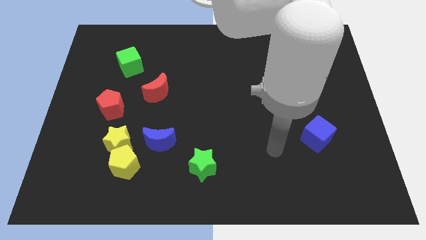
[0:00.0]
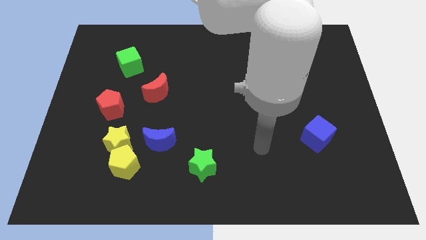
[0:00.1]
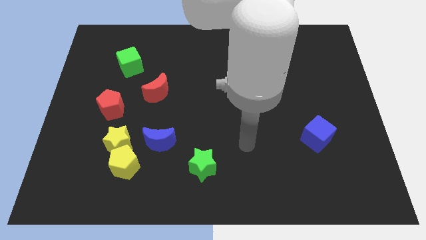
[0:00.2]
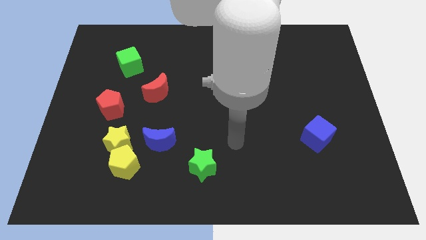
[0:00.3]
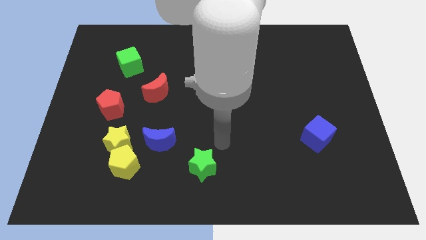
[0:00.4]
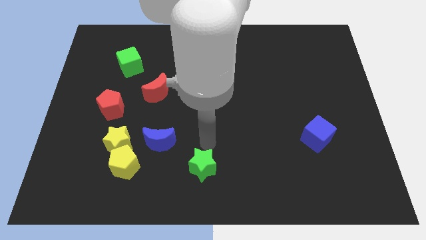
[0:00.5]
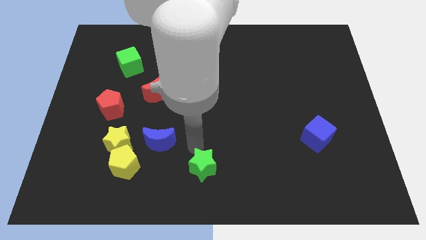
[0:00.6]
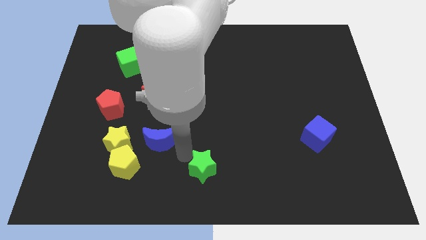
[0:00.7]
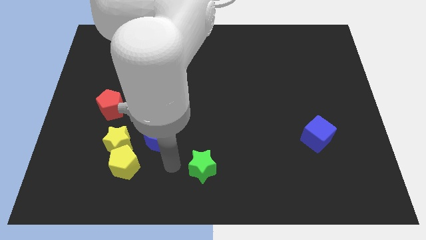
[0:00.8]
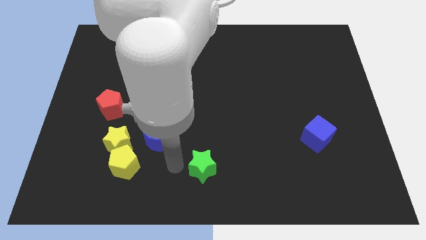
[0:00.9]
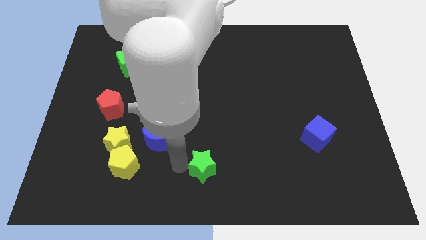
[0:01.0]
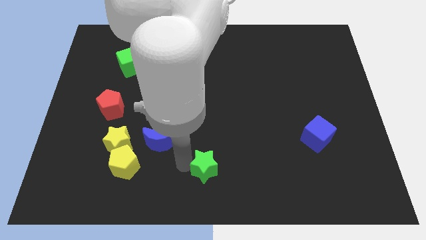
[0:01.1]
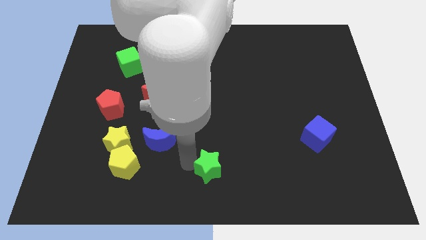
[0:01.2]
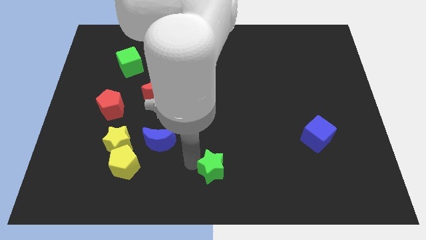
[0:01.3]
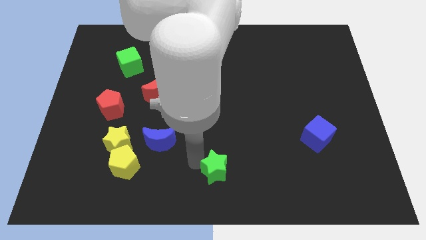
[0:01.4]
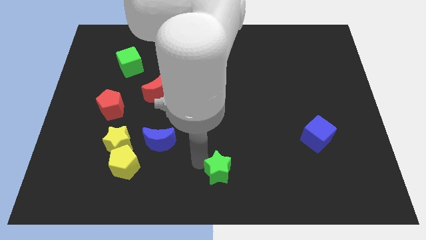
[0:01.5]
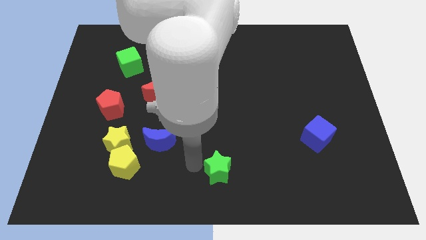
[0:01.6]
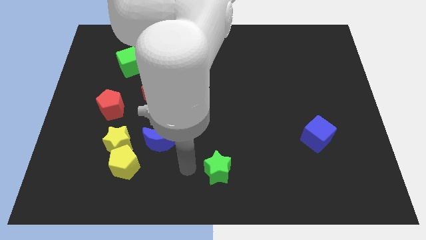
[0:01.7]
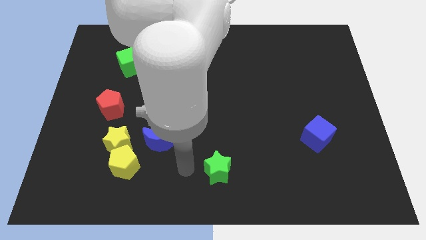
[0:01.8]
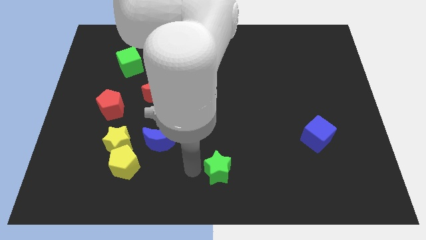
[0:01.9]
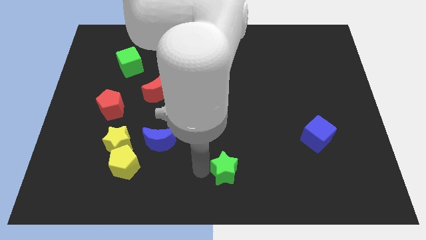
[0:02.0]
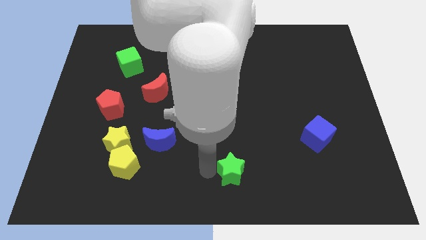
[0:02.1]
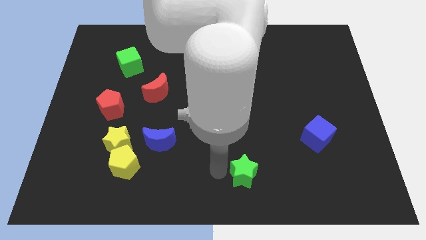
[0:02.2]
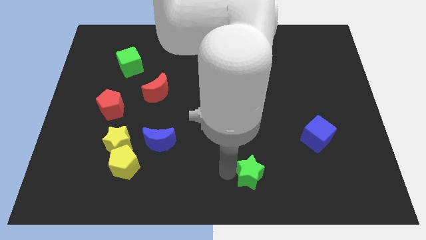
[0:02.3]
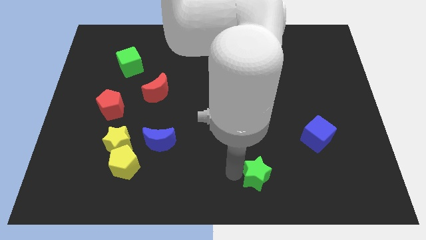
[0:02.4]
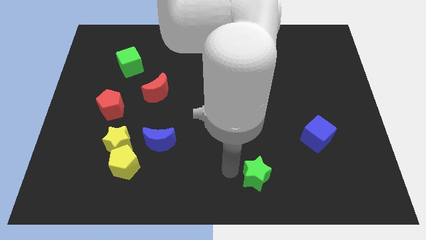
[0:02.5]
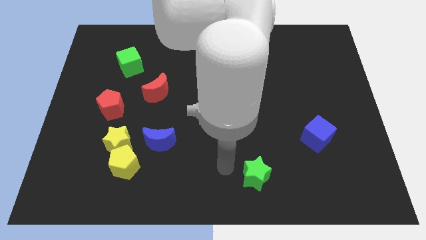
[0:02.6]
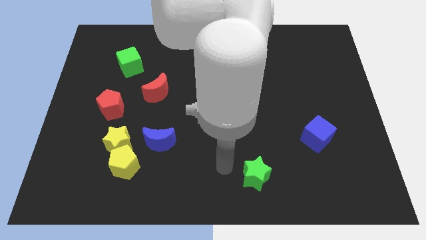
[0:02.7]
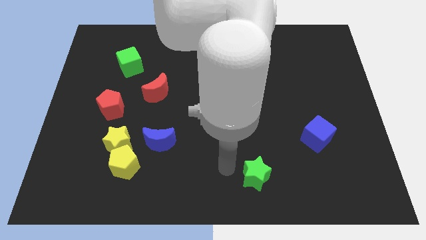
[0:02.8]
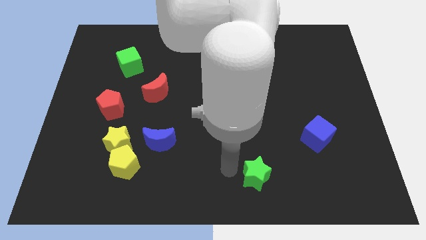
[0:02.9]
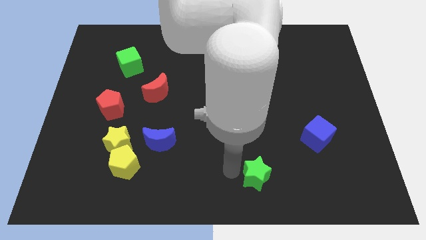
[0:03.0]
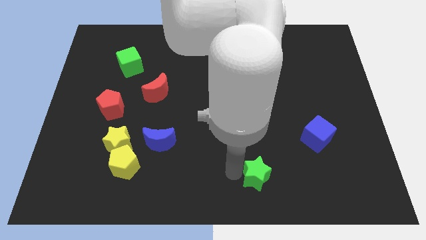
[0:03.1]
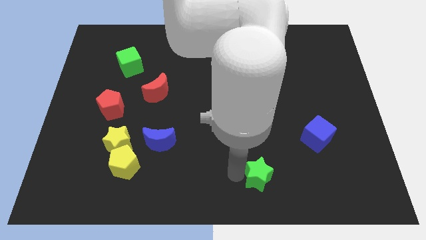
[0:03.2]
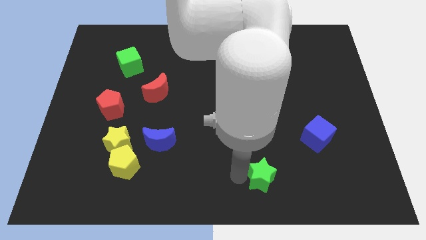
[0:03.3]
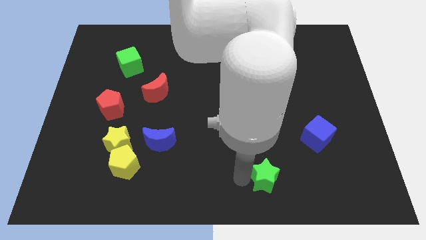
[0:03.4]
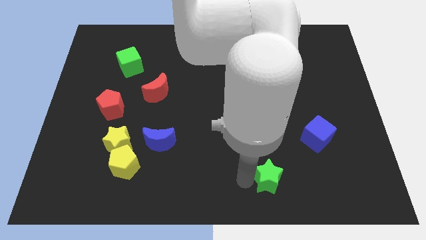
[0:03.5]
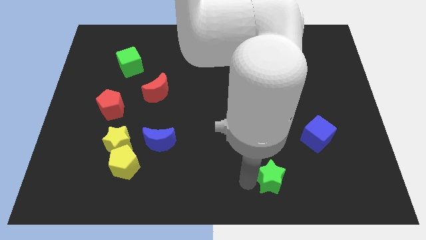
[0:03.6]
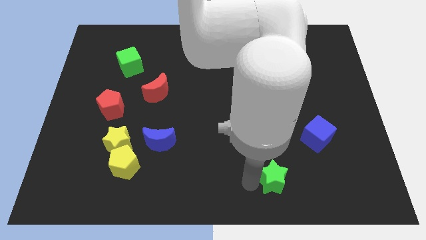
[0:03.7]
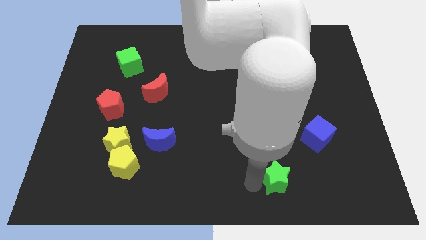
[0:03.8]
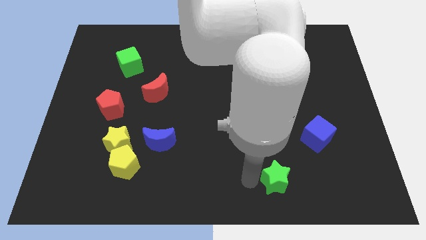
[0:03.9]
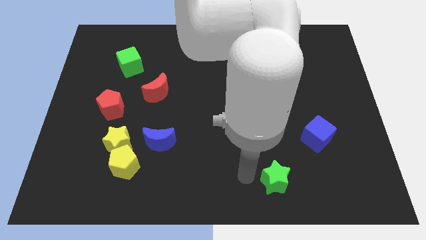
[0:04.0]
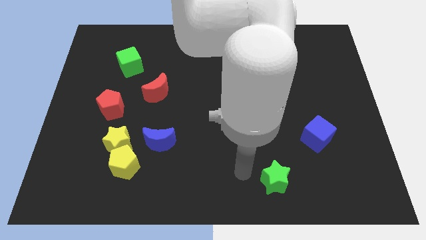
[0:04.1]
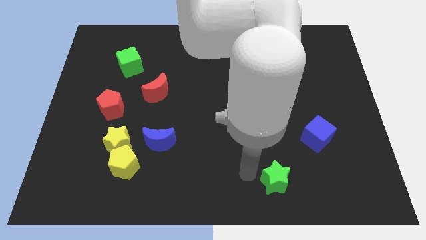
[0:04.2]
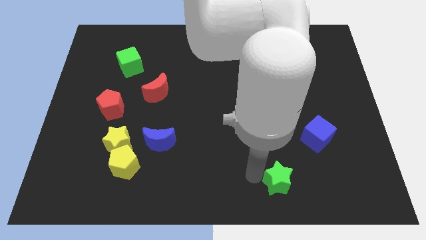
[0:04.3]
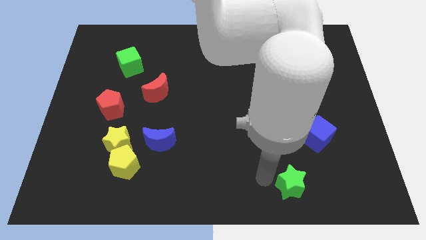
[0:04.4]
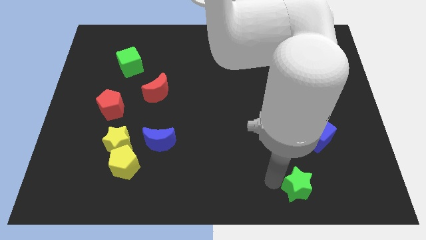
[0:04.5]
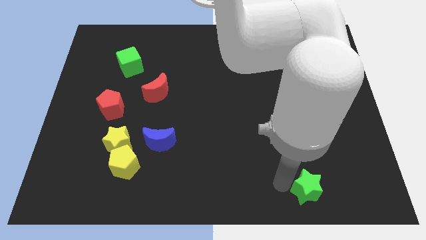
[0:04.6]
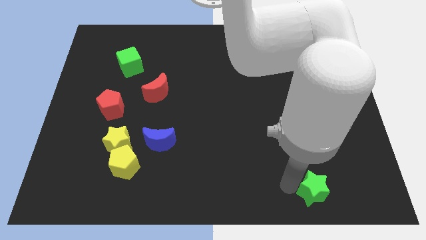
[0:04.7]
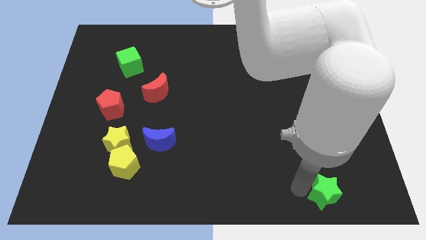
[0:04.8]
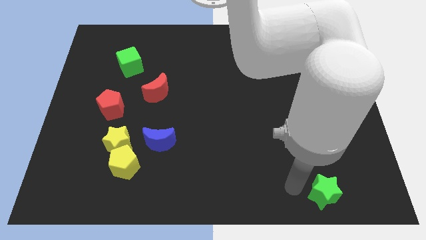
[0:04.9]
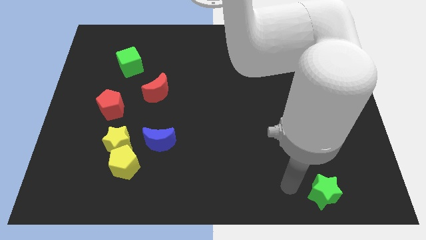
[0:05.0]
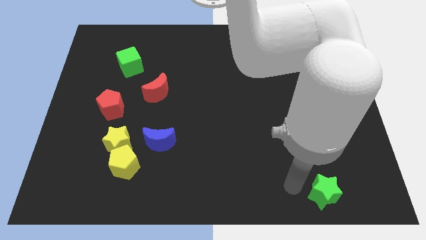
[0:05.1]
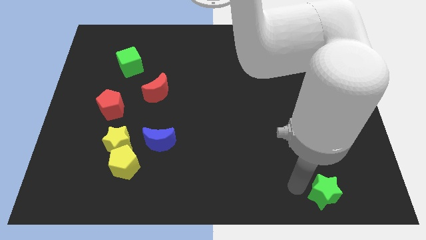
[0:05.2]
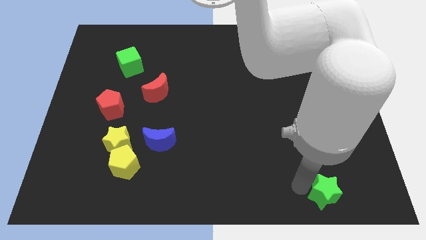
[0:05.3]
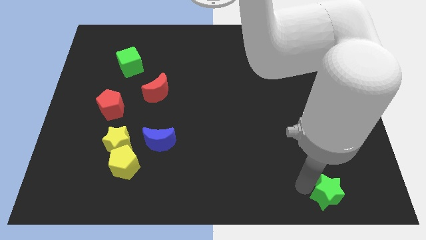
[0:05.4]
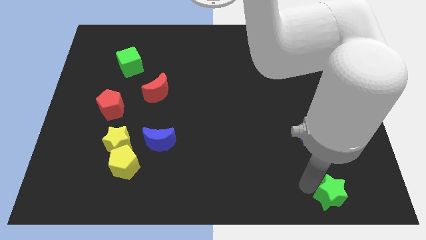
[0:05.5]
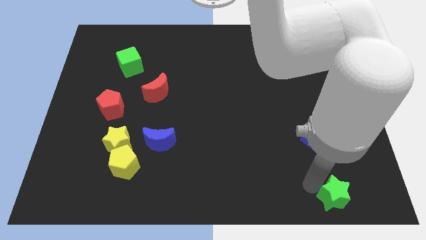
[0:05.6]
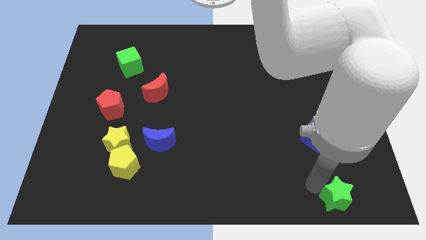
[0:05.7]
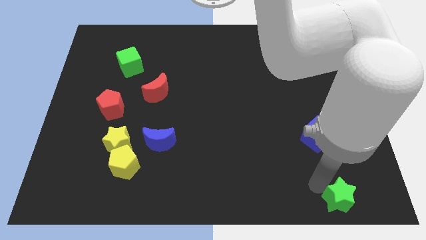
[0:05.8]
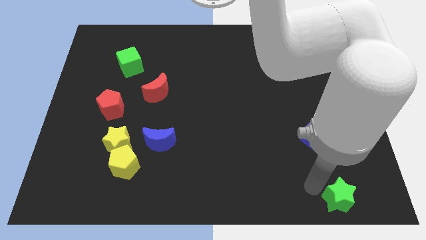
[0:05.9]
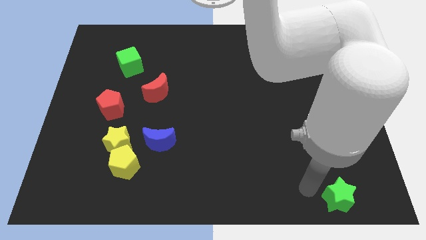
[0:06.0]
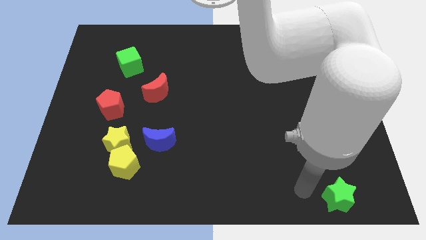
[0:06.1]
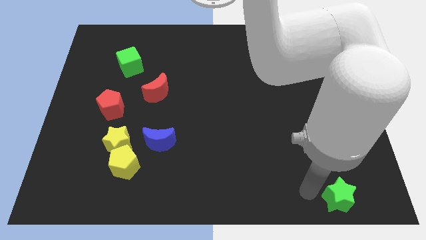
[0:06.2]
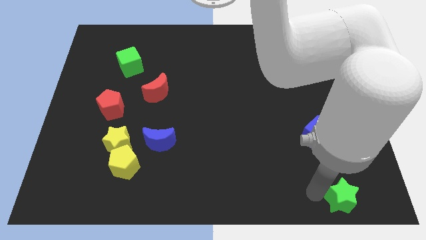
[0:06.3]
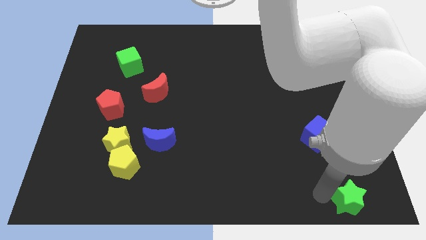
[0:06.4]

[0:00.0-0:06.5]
put the green star to the bottom right of the board

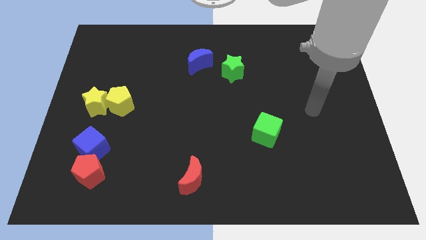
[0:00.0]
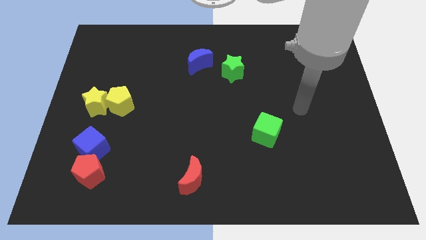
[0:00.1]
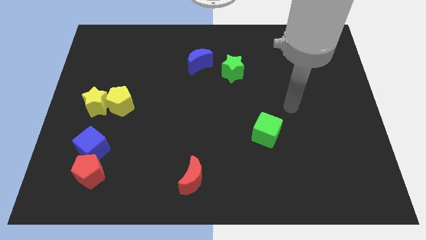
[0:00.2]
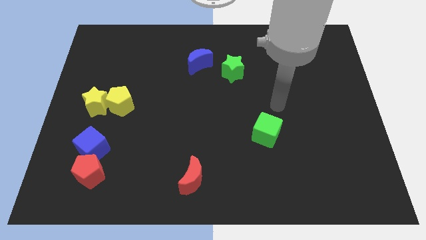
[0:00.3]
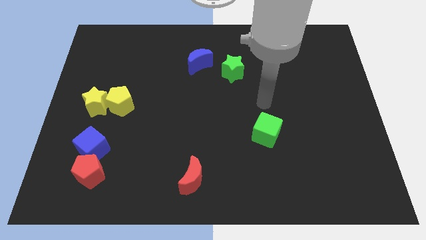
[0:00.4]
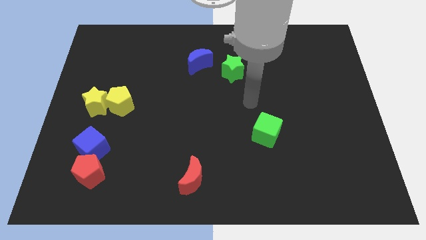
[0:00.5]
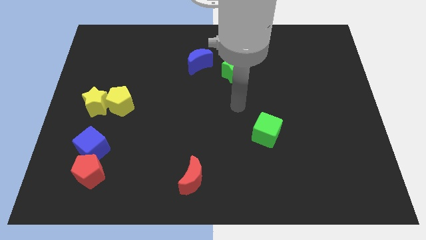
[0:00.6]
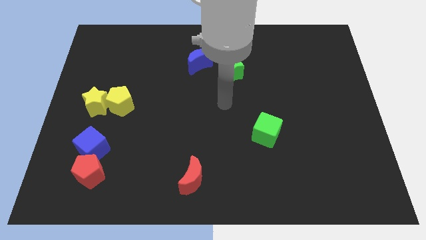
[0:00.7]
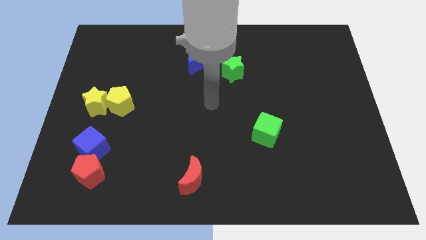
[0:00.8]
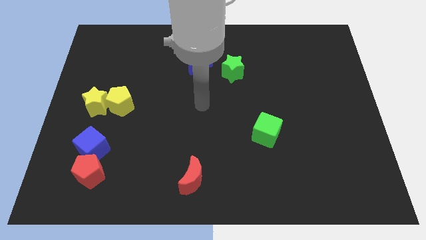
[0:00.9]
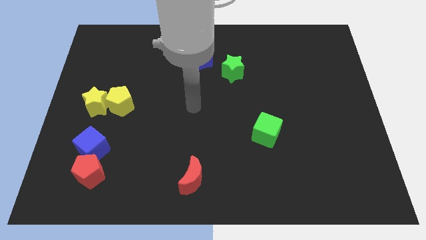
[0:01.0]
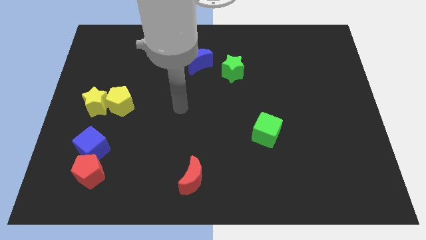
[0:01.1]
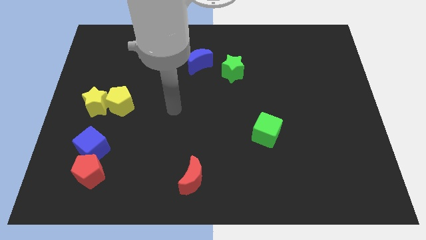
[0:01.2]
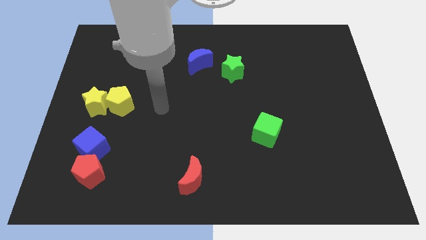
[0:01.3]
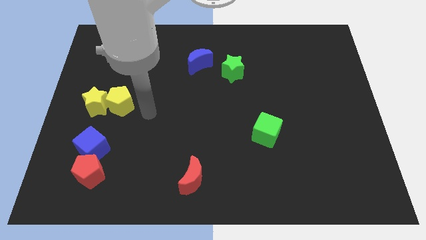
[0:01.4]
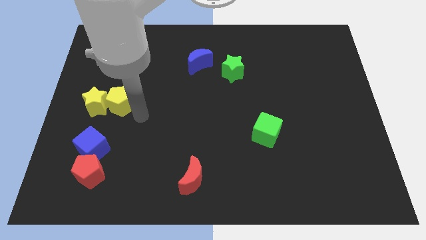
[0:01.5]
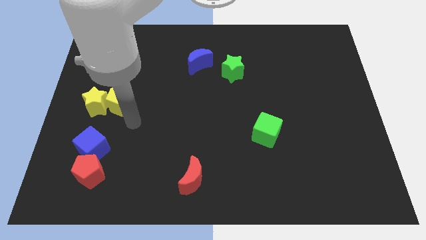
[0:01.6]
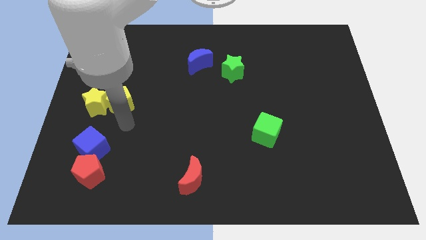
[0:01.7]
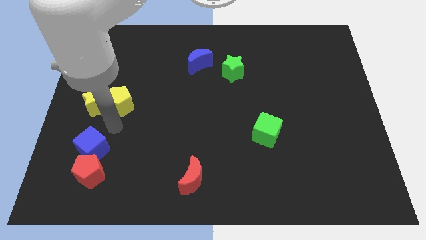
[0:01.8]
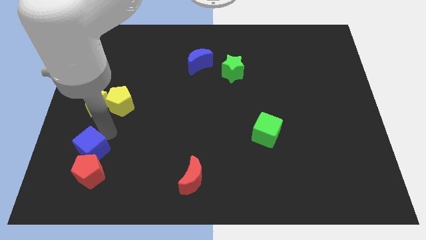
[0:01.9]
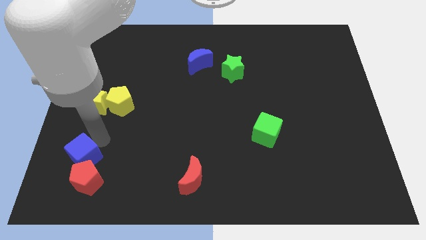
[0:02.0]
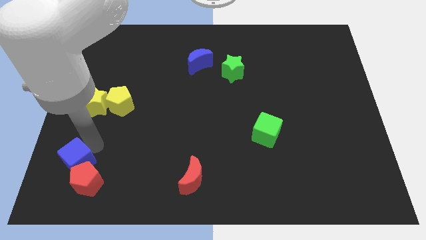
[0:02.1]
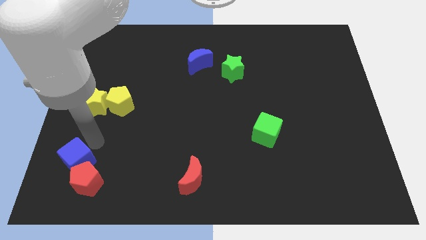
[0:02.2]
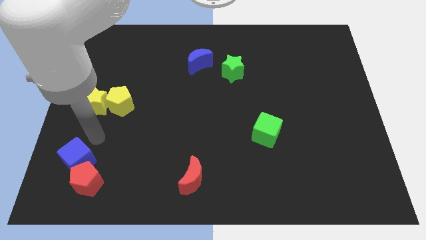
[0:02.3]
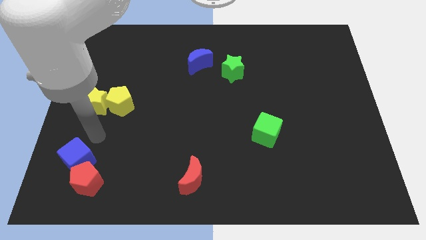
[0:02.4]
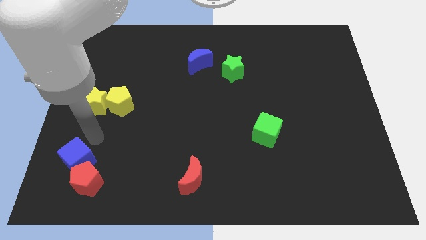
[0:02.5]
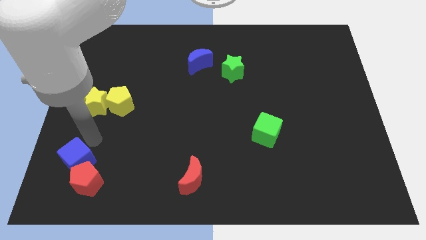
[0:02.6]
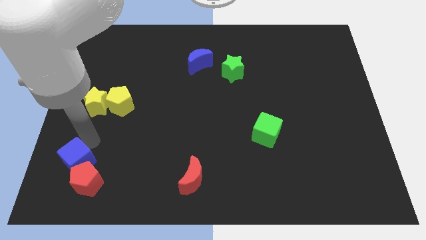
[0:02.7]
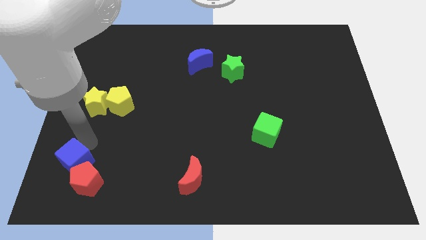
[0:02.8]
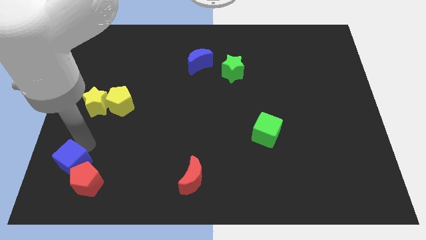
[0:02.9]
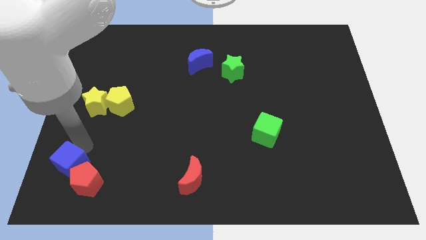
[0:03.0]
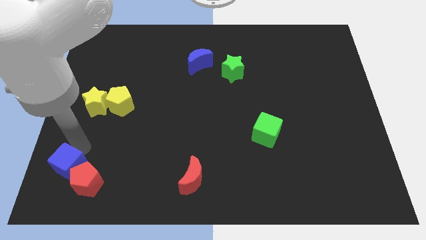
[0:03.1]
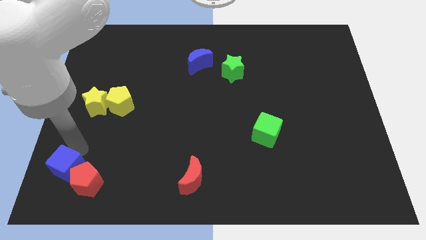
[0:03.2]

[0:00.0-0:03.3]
move the blue cube to the bottom left of the board
